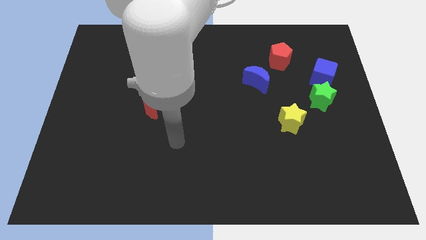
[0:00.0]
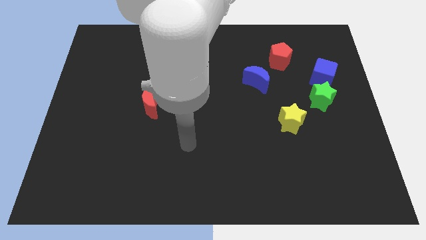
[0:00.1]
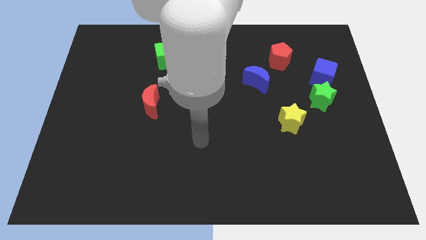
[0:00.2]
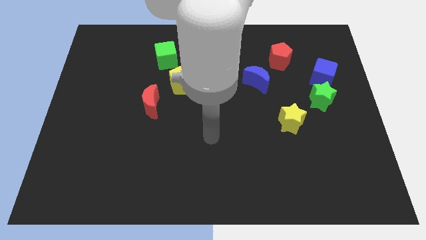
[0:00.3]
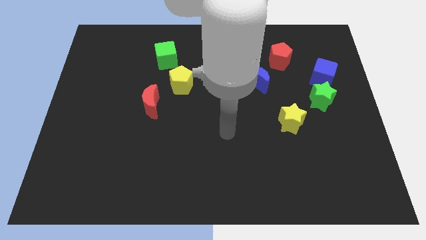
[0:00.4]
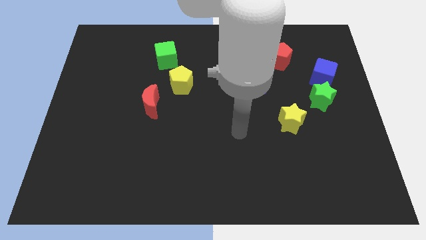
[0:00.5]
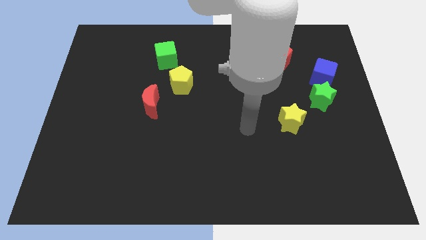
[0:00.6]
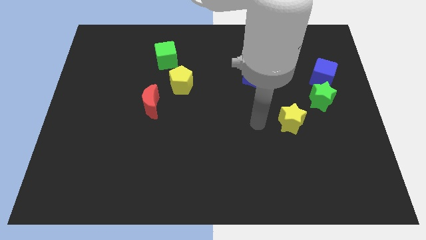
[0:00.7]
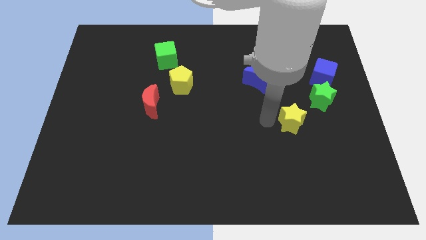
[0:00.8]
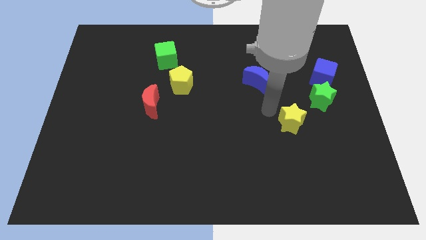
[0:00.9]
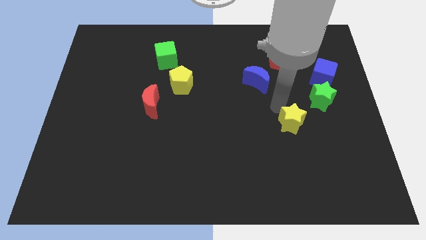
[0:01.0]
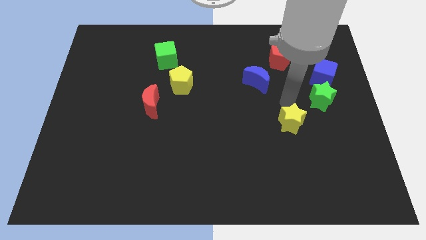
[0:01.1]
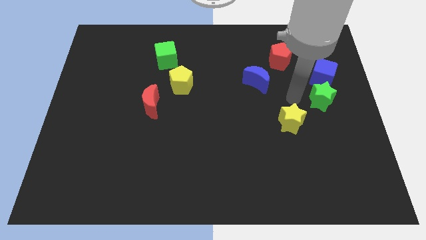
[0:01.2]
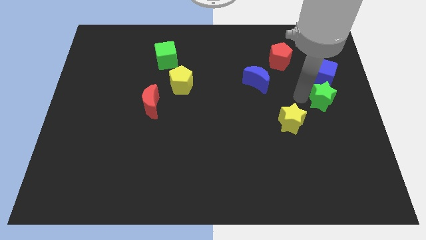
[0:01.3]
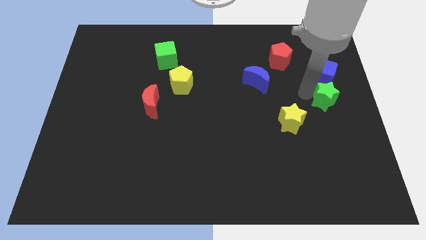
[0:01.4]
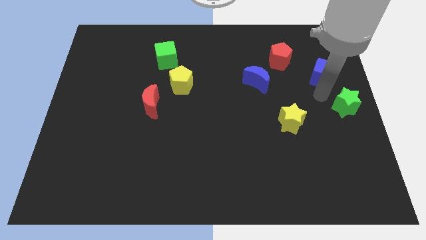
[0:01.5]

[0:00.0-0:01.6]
separate the blue cube from the green star

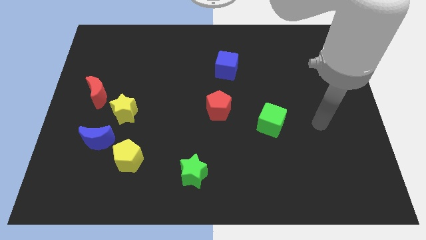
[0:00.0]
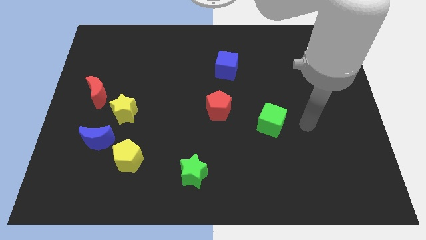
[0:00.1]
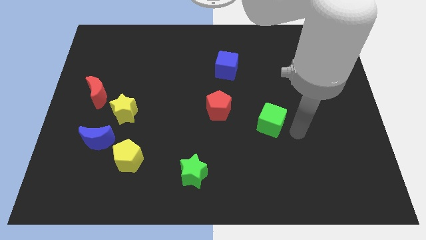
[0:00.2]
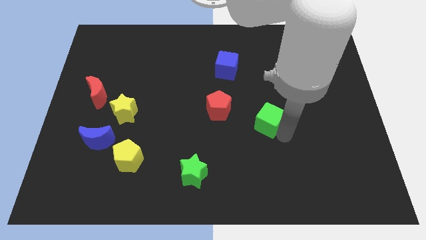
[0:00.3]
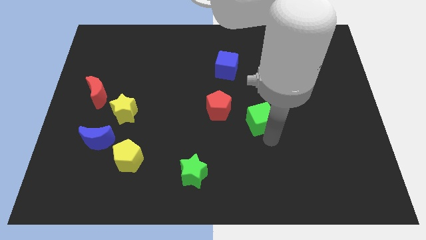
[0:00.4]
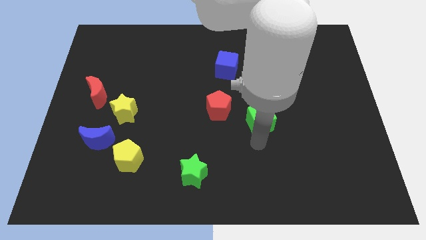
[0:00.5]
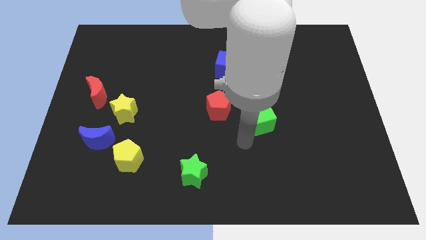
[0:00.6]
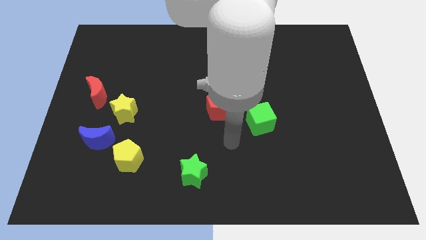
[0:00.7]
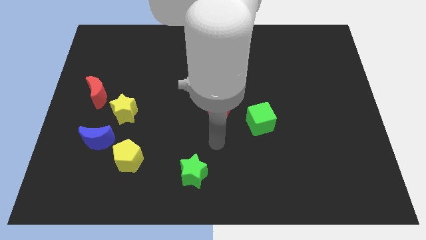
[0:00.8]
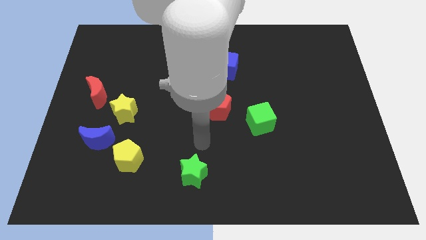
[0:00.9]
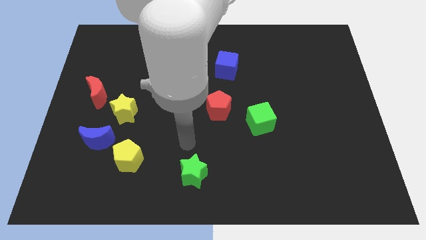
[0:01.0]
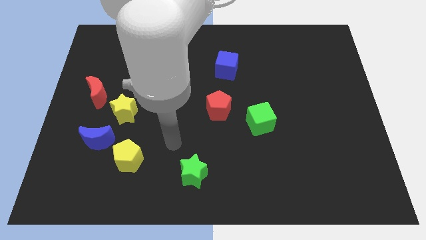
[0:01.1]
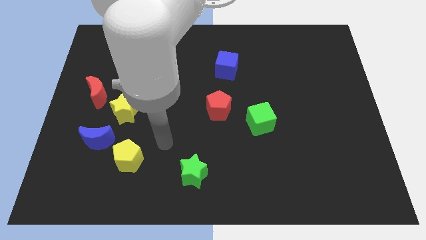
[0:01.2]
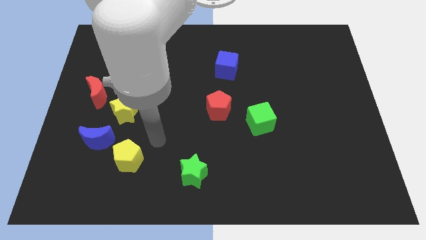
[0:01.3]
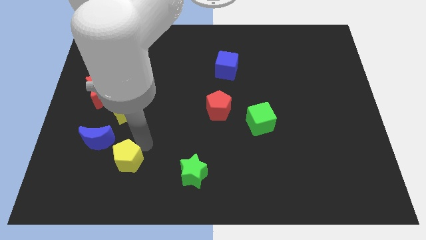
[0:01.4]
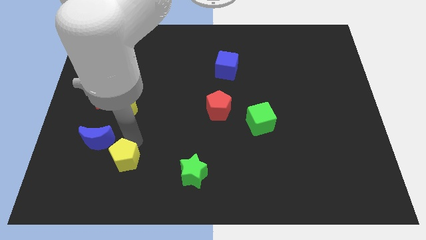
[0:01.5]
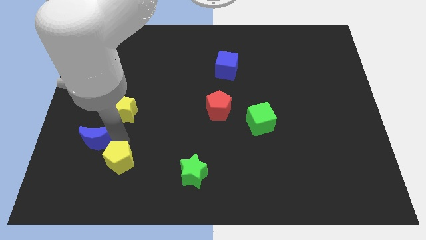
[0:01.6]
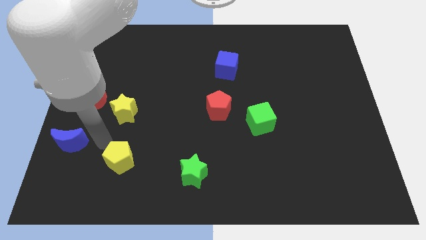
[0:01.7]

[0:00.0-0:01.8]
pull the yellow pentagon apart from the blue moon

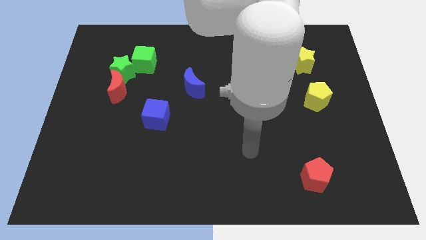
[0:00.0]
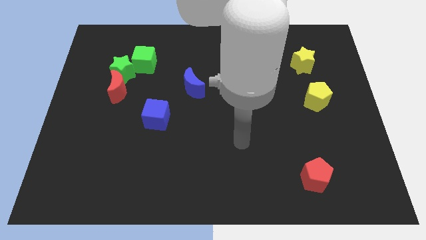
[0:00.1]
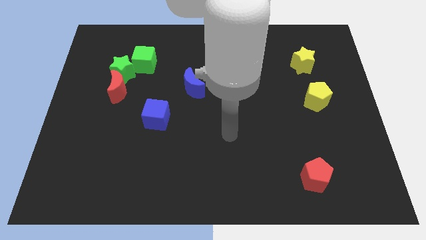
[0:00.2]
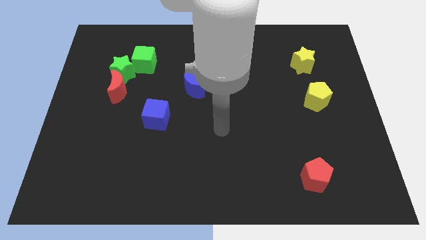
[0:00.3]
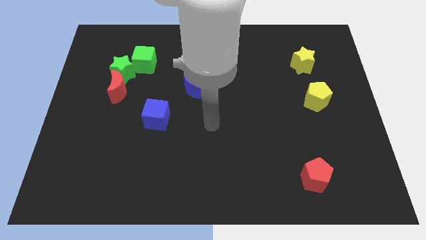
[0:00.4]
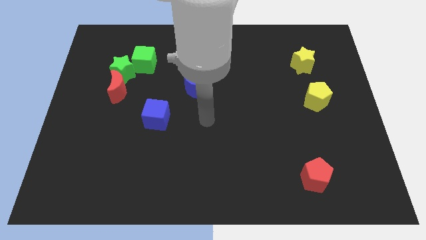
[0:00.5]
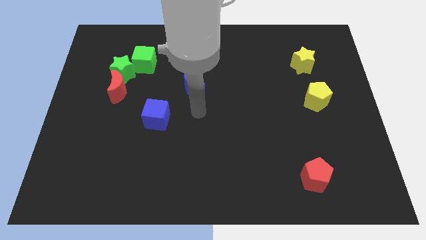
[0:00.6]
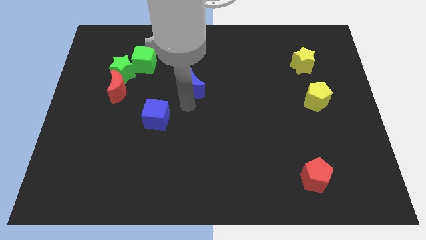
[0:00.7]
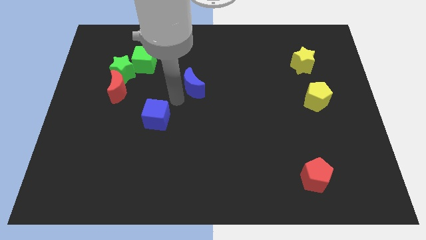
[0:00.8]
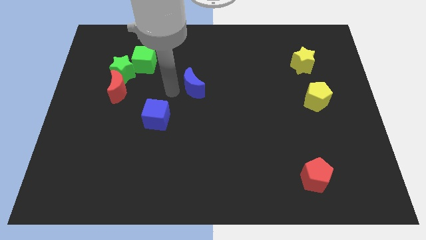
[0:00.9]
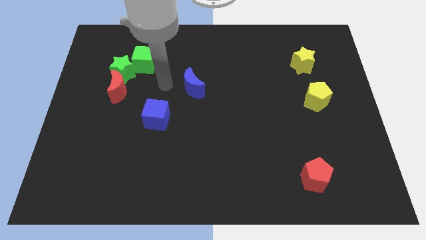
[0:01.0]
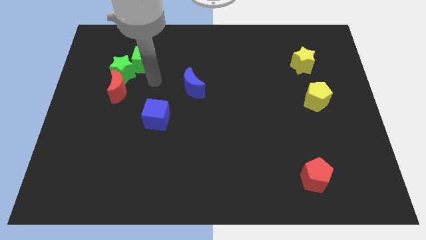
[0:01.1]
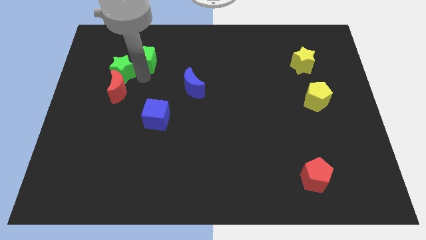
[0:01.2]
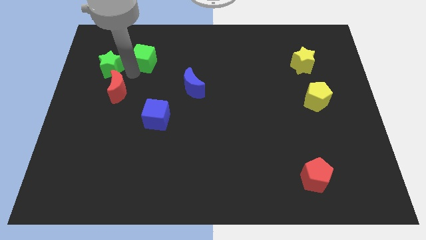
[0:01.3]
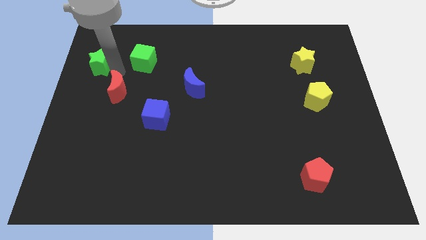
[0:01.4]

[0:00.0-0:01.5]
move the red moon away from the green star

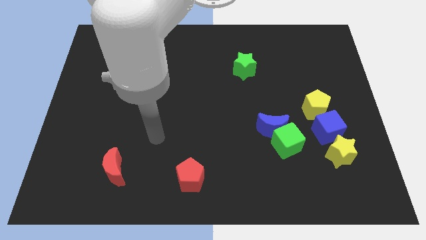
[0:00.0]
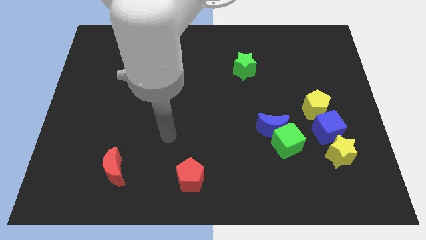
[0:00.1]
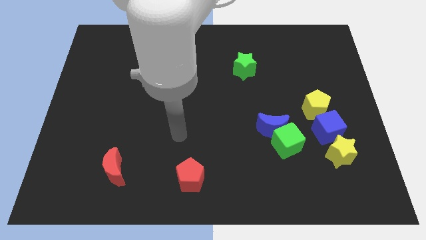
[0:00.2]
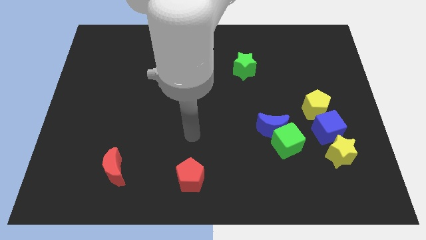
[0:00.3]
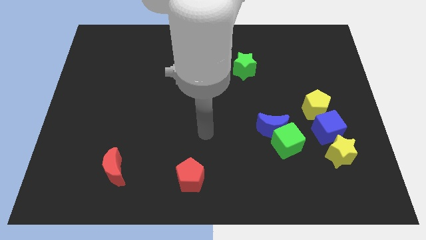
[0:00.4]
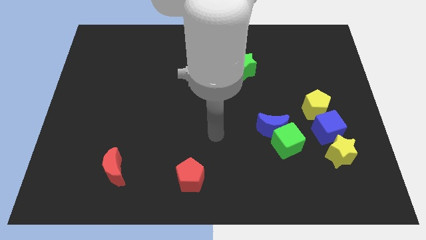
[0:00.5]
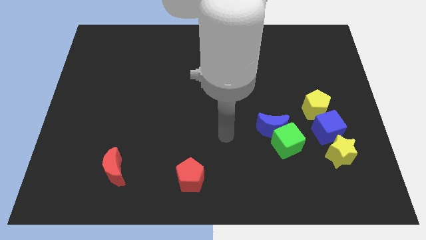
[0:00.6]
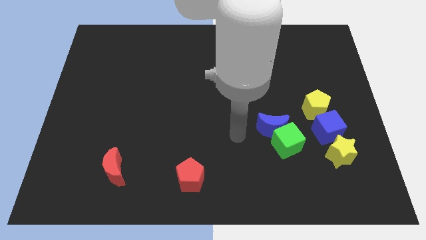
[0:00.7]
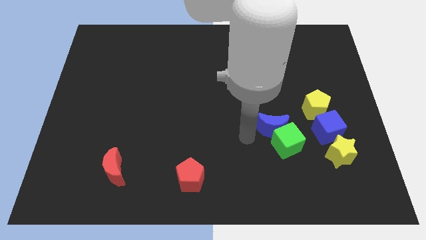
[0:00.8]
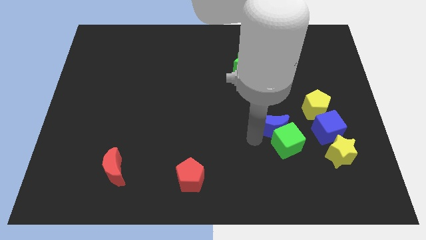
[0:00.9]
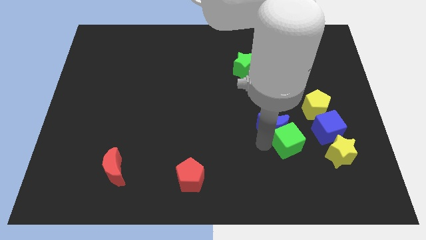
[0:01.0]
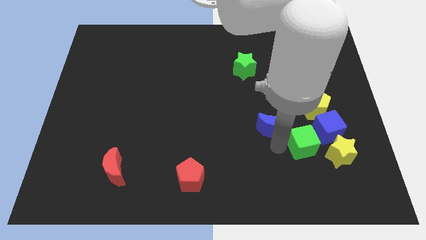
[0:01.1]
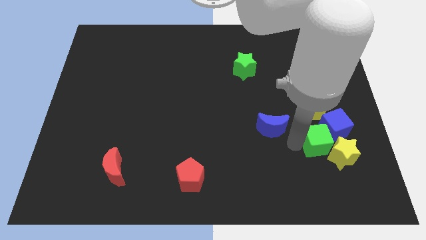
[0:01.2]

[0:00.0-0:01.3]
pull the blue moon apart from the green cube

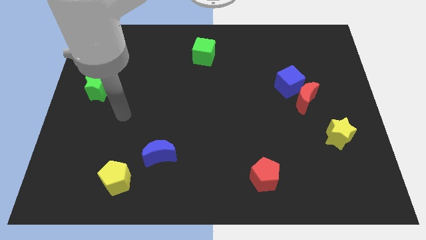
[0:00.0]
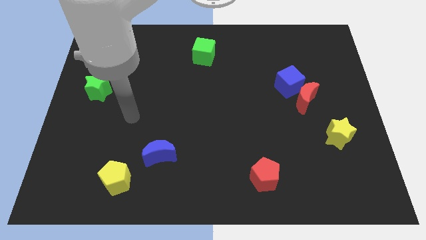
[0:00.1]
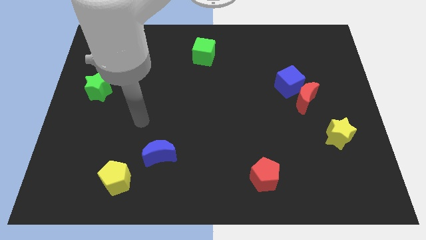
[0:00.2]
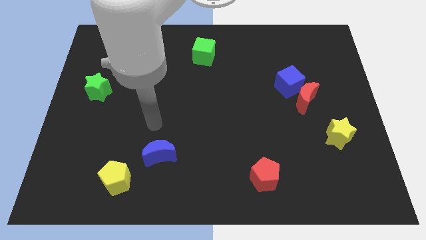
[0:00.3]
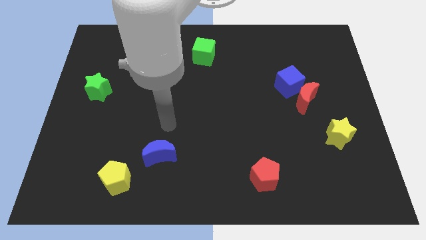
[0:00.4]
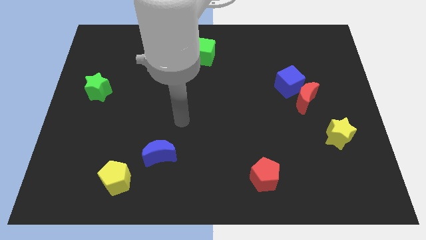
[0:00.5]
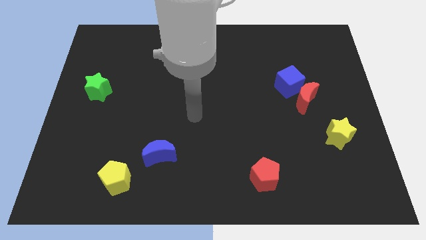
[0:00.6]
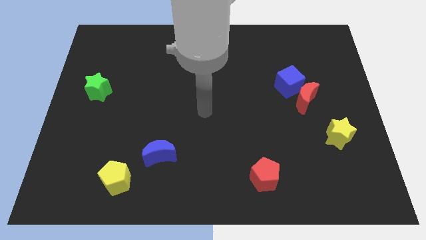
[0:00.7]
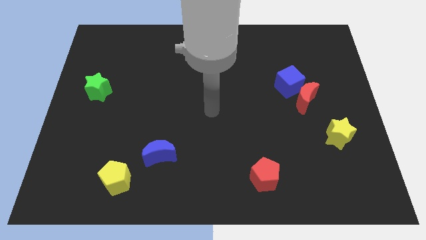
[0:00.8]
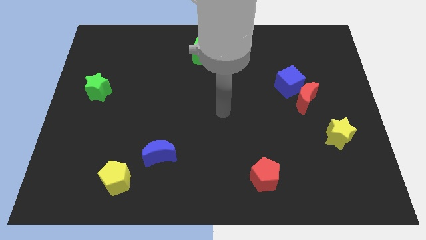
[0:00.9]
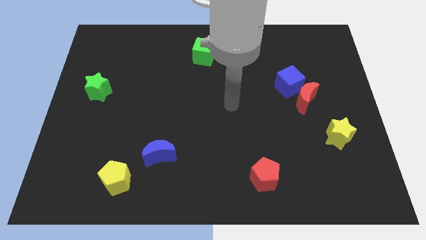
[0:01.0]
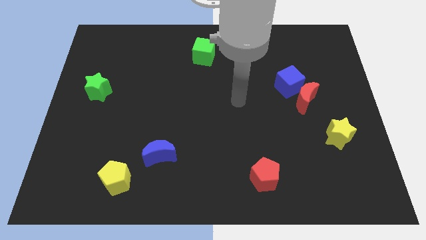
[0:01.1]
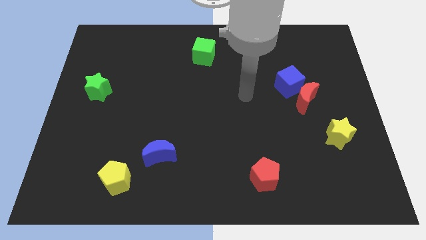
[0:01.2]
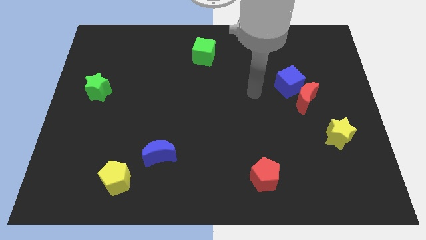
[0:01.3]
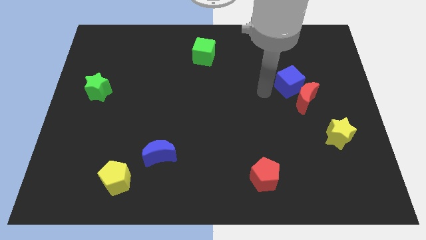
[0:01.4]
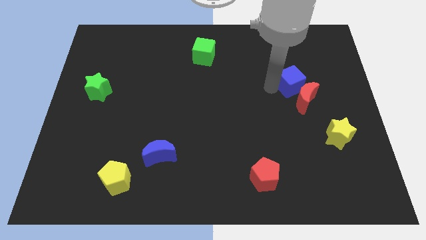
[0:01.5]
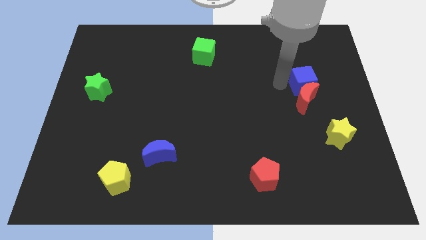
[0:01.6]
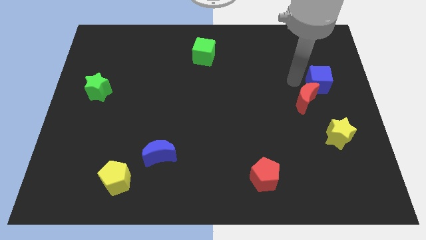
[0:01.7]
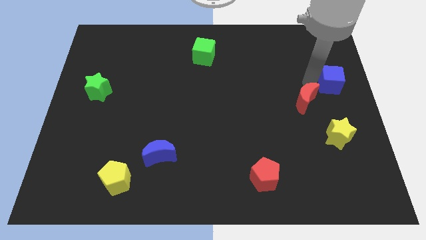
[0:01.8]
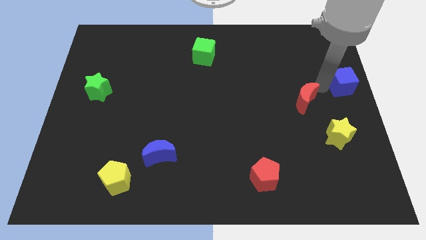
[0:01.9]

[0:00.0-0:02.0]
move the red moon away from the blue cube

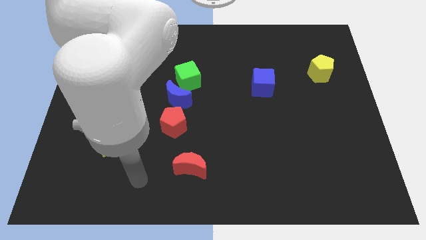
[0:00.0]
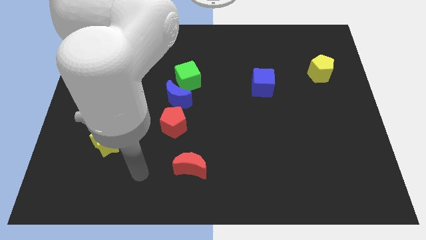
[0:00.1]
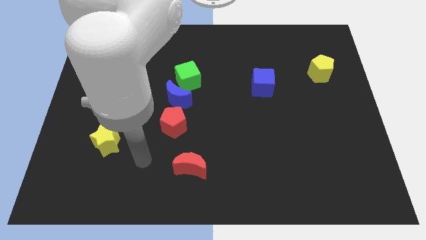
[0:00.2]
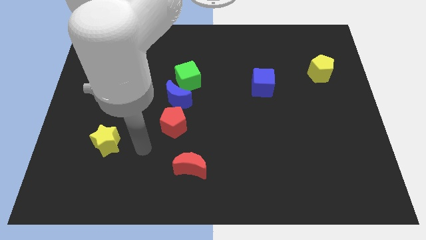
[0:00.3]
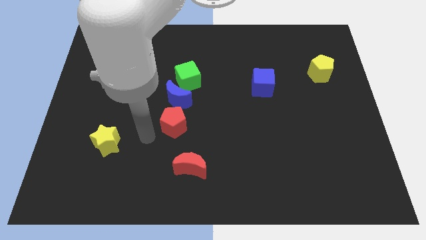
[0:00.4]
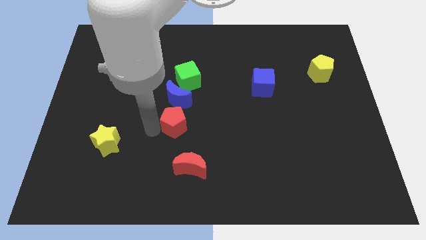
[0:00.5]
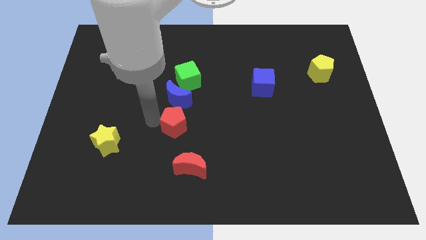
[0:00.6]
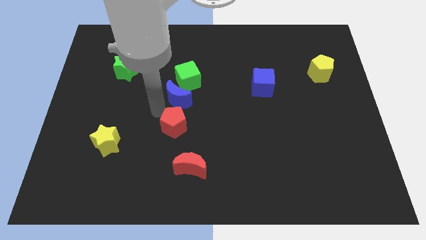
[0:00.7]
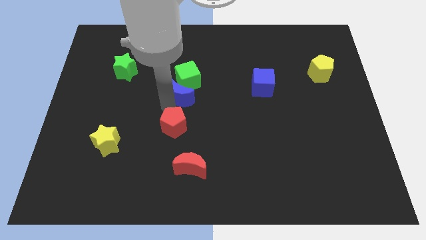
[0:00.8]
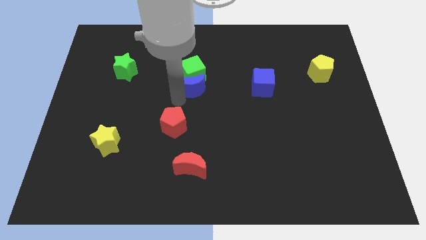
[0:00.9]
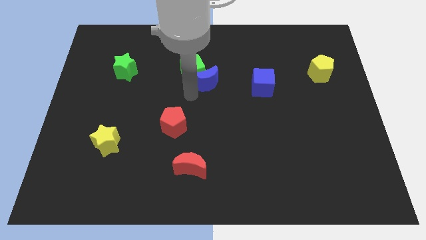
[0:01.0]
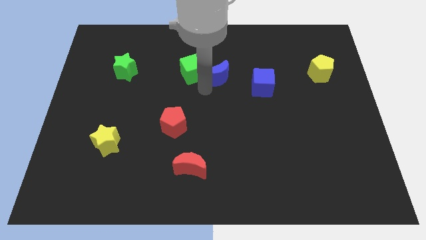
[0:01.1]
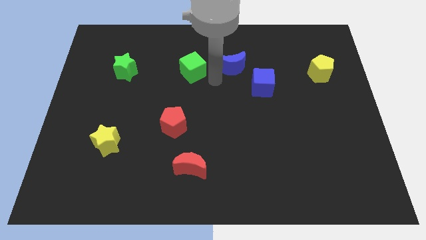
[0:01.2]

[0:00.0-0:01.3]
move the green cube away from the blue moon
